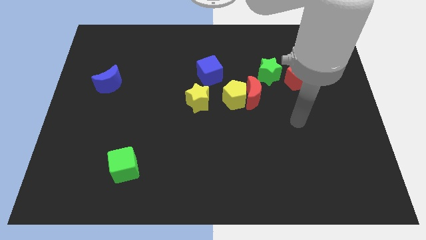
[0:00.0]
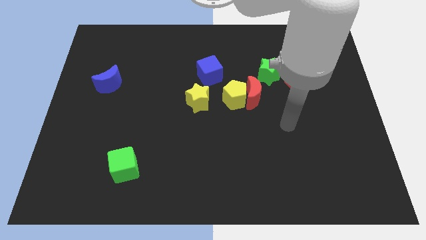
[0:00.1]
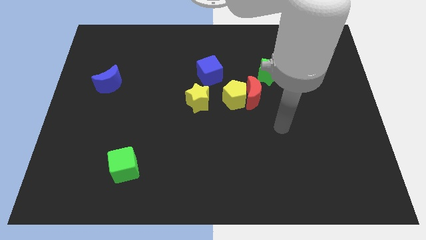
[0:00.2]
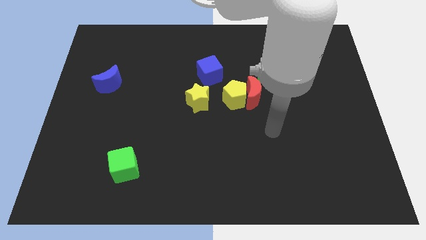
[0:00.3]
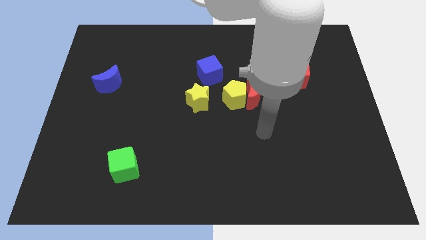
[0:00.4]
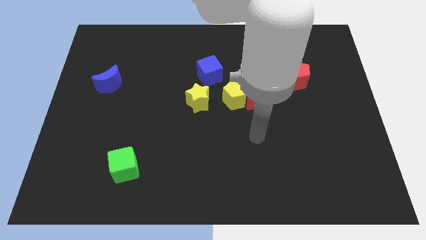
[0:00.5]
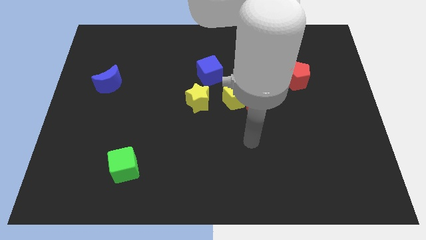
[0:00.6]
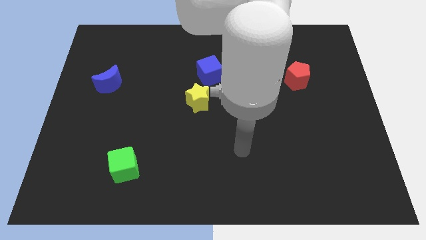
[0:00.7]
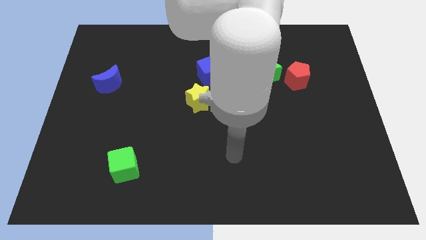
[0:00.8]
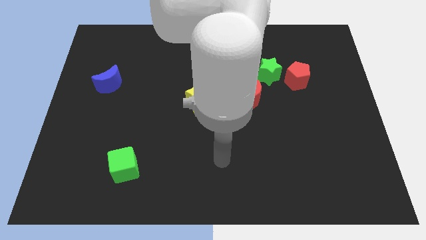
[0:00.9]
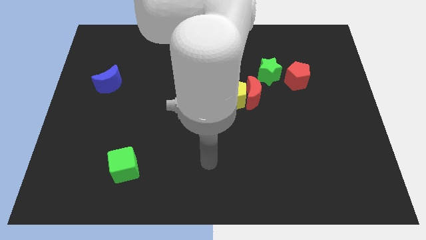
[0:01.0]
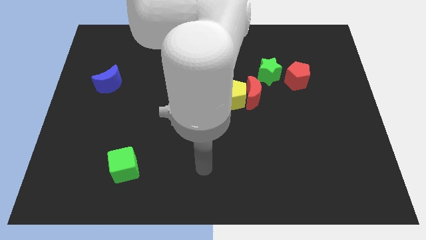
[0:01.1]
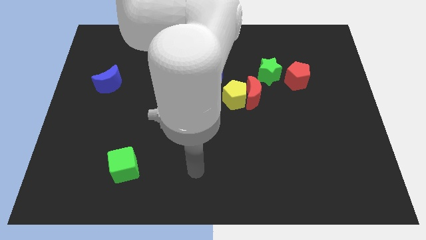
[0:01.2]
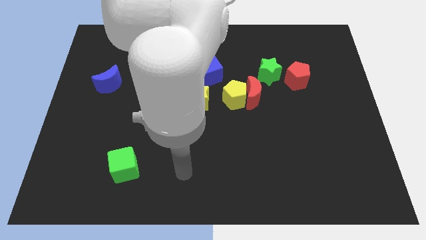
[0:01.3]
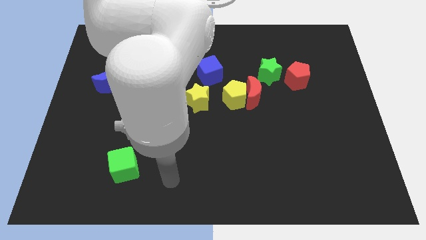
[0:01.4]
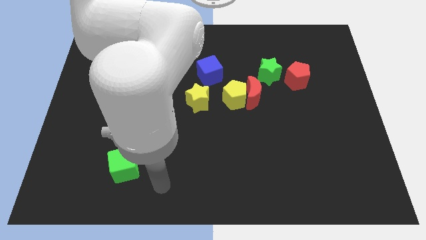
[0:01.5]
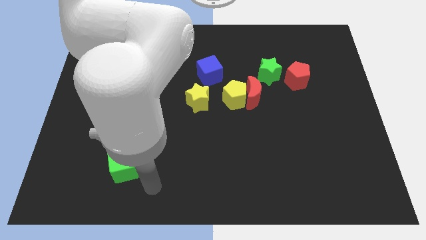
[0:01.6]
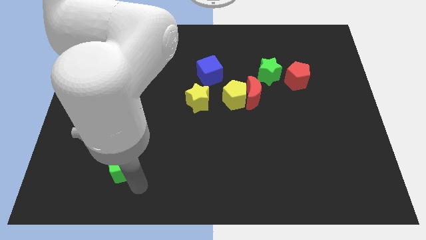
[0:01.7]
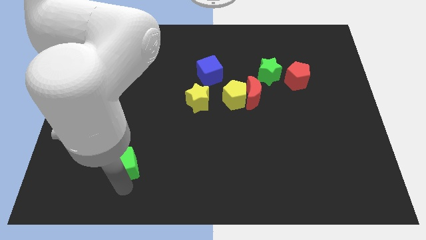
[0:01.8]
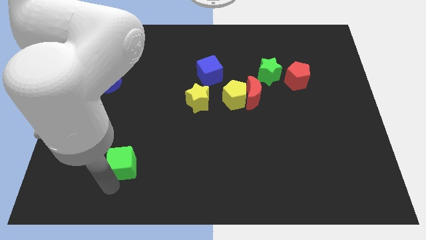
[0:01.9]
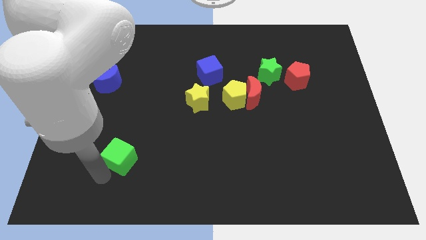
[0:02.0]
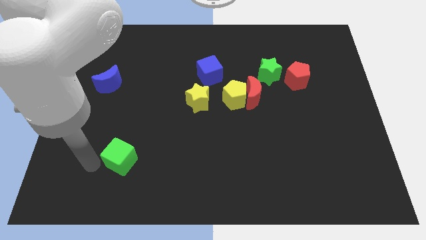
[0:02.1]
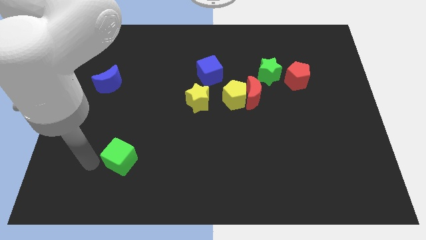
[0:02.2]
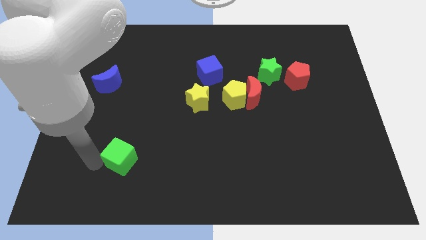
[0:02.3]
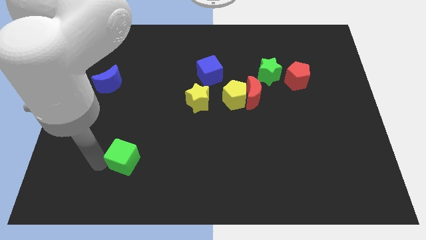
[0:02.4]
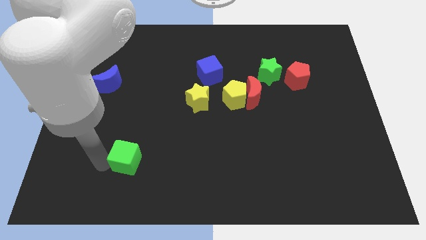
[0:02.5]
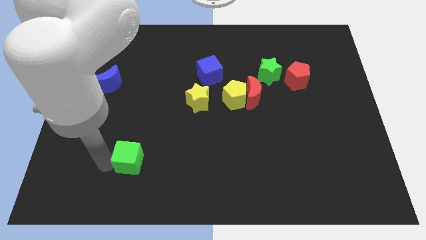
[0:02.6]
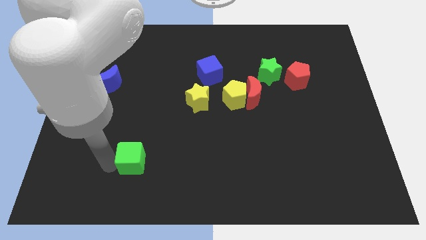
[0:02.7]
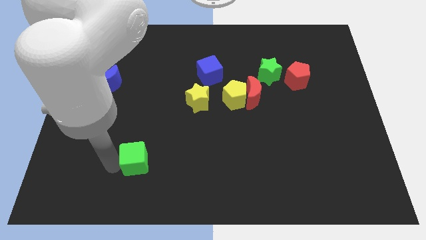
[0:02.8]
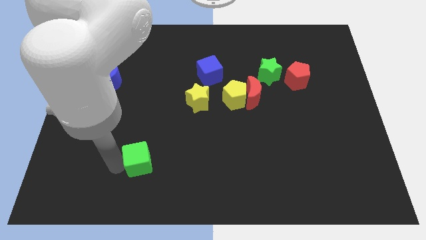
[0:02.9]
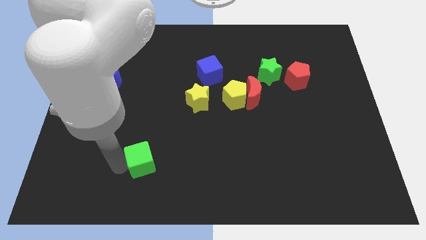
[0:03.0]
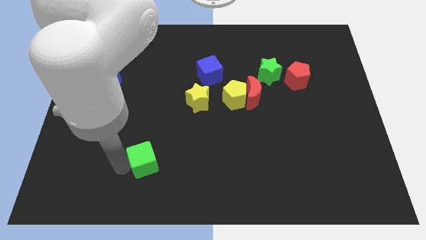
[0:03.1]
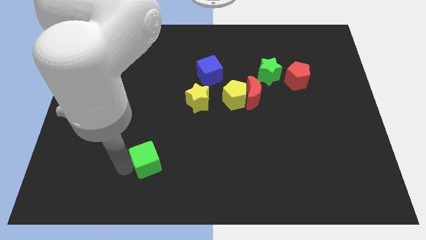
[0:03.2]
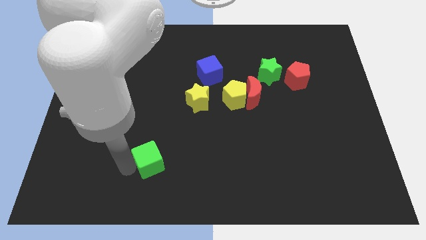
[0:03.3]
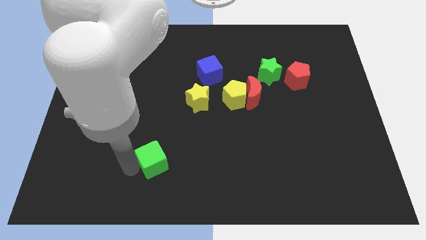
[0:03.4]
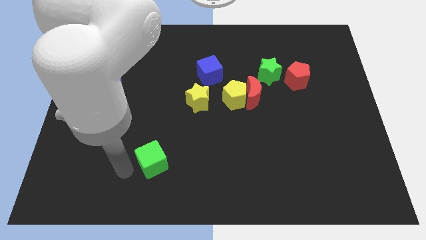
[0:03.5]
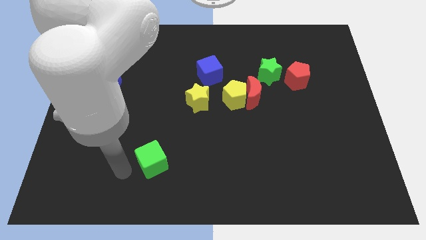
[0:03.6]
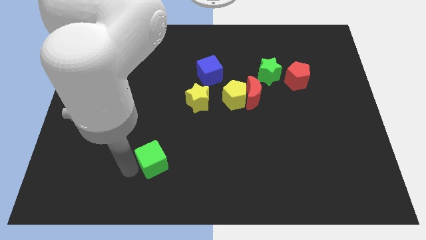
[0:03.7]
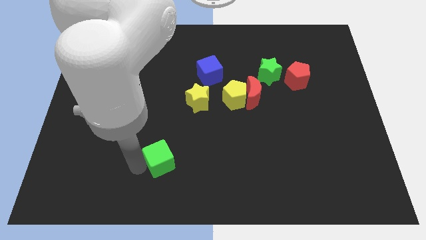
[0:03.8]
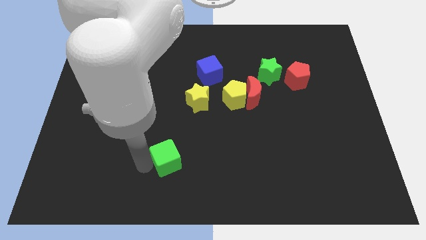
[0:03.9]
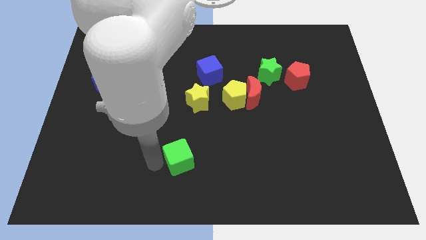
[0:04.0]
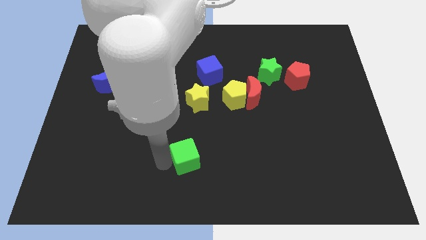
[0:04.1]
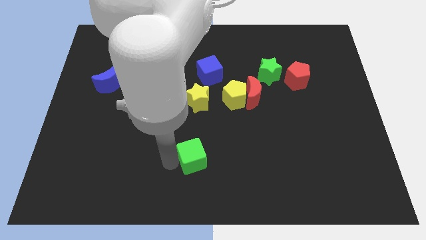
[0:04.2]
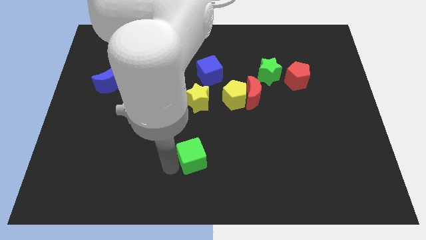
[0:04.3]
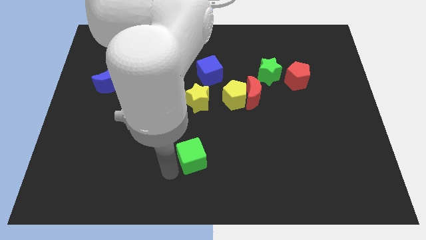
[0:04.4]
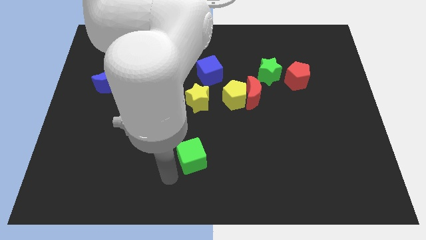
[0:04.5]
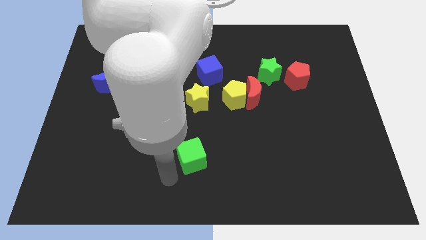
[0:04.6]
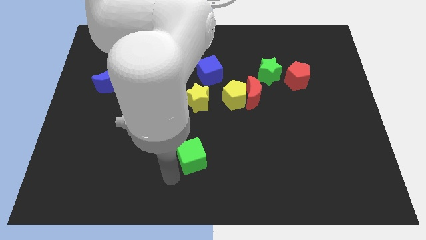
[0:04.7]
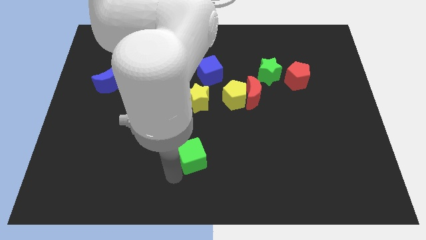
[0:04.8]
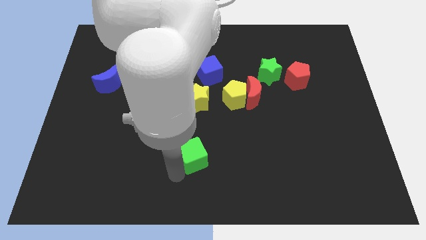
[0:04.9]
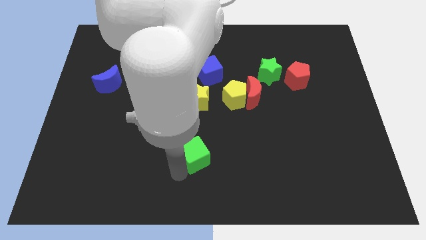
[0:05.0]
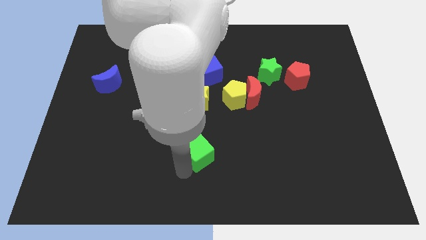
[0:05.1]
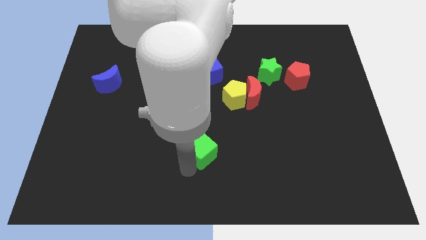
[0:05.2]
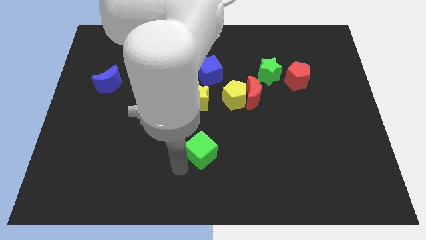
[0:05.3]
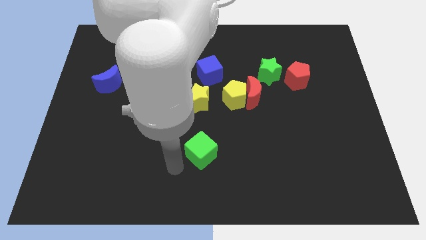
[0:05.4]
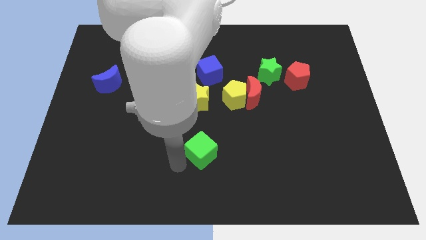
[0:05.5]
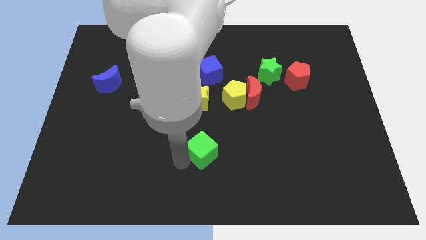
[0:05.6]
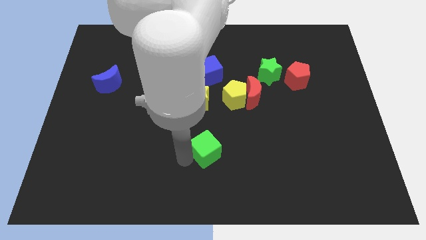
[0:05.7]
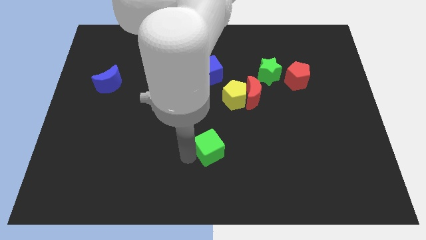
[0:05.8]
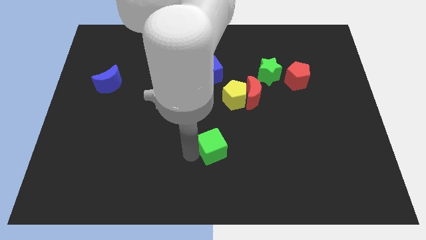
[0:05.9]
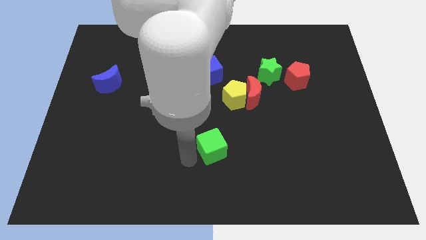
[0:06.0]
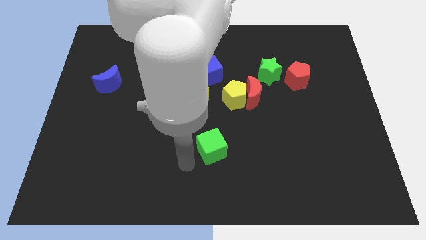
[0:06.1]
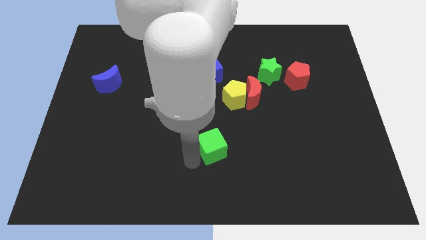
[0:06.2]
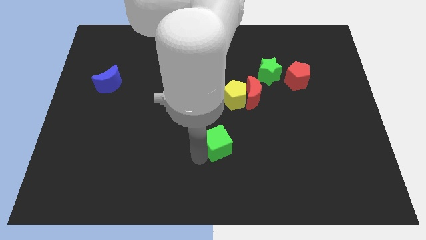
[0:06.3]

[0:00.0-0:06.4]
slide the green cube to the bottom side of the yellow pentagon
